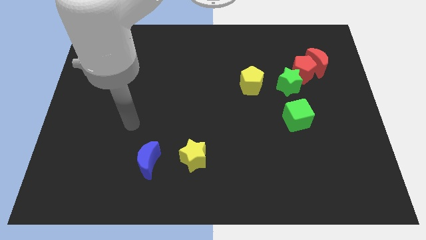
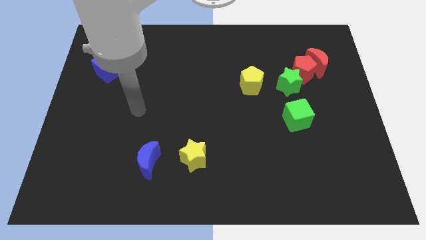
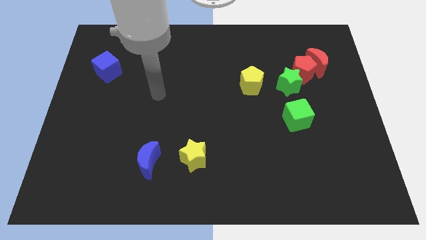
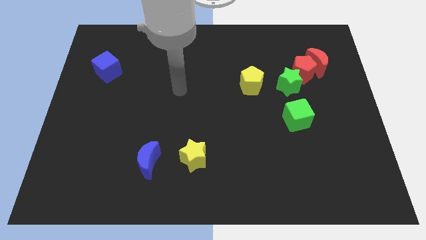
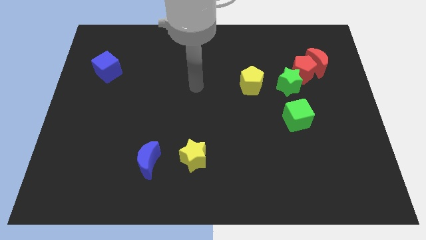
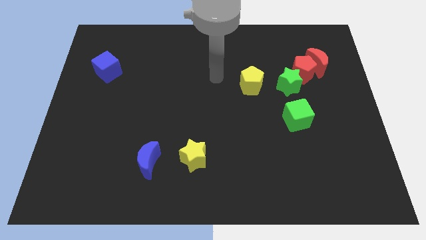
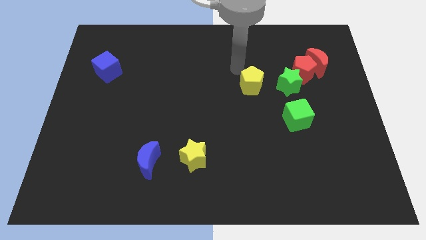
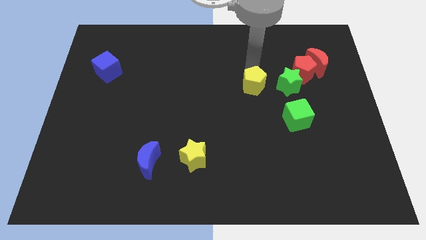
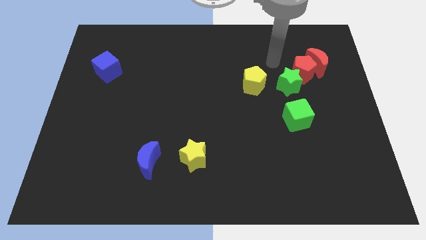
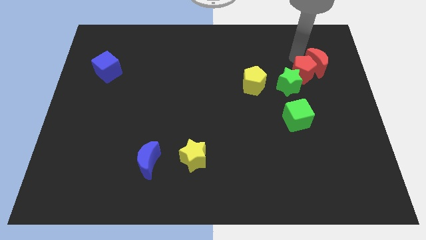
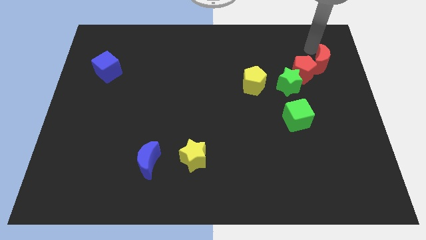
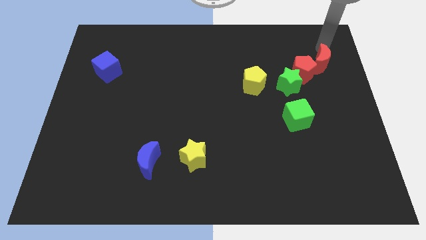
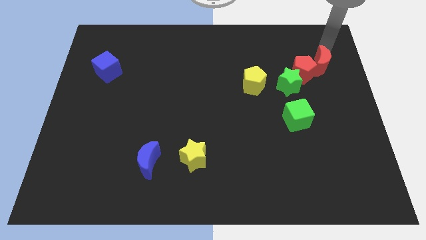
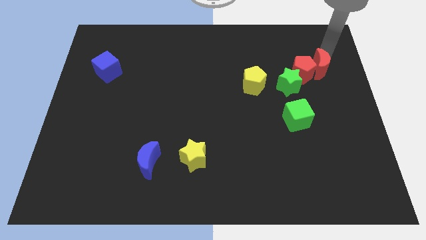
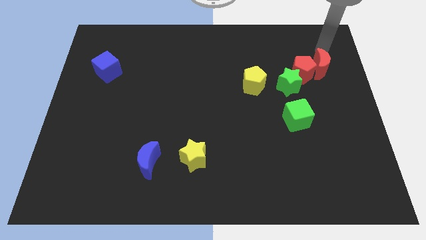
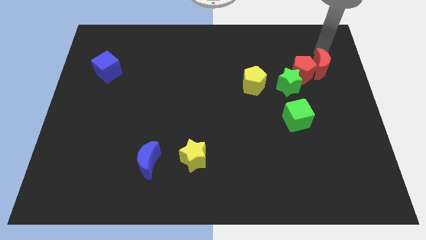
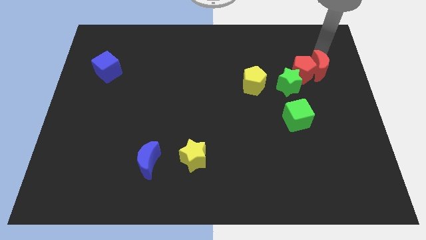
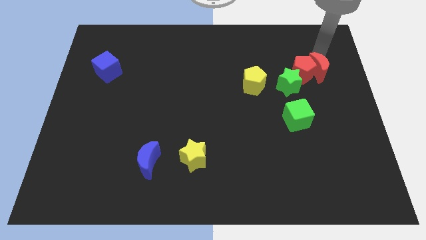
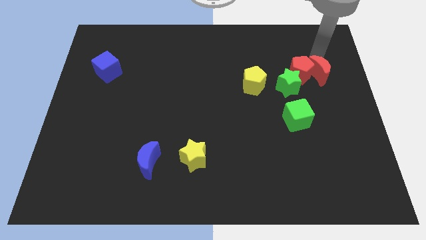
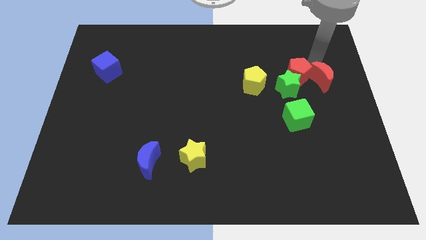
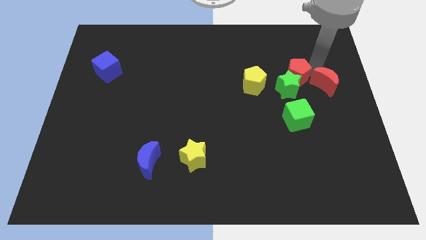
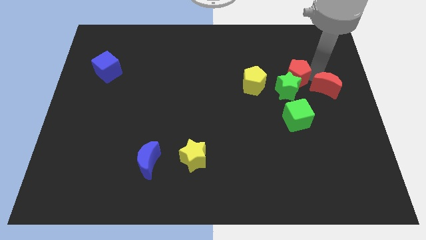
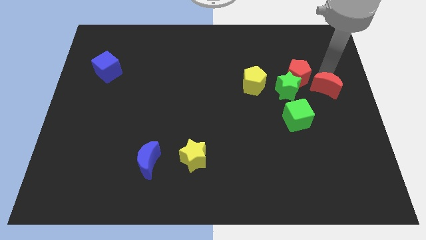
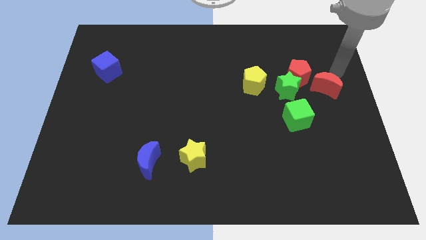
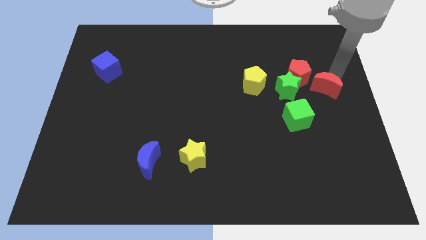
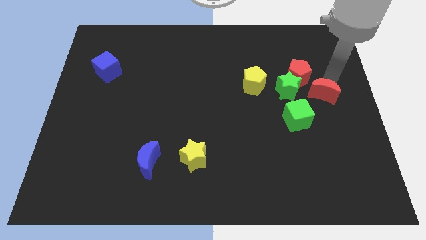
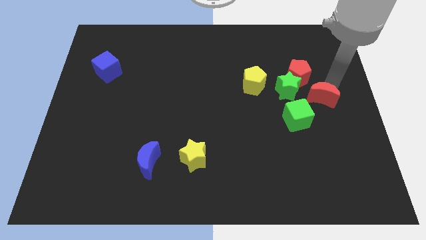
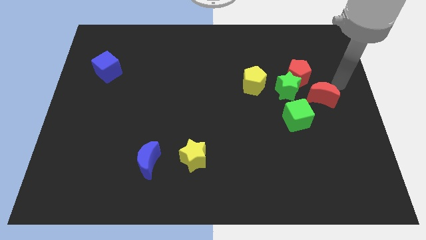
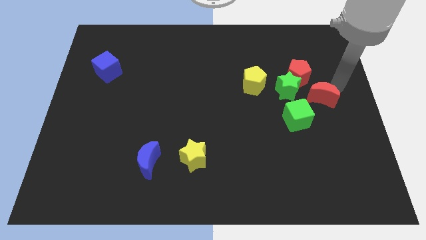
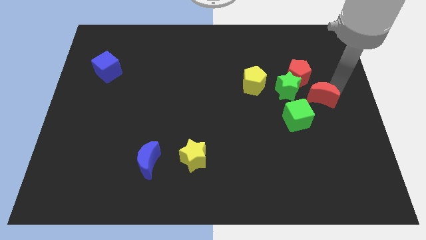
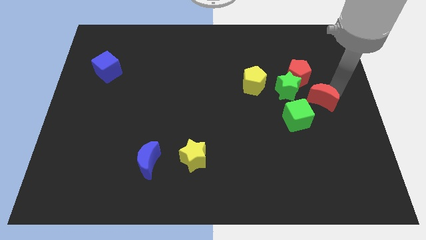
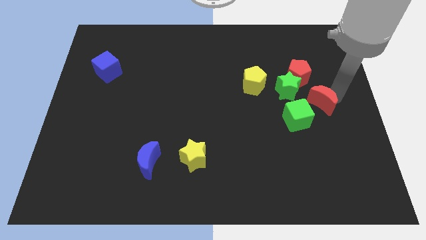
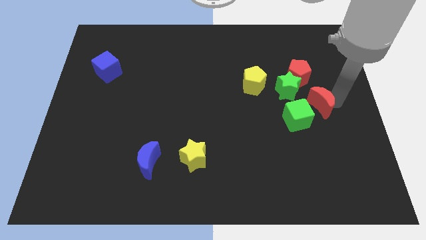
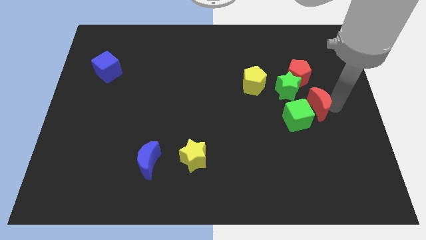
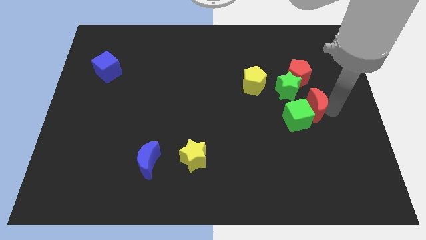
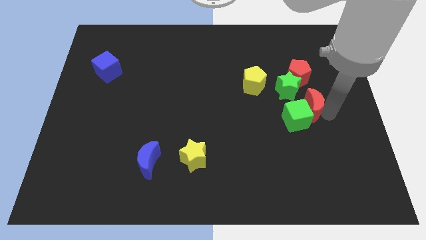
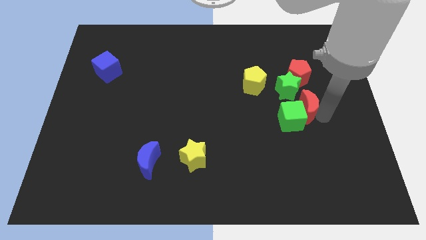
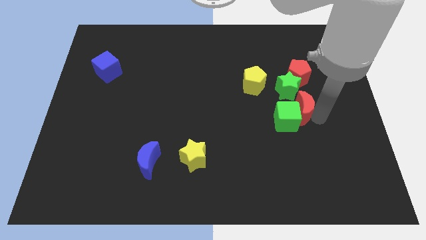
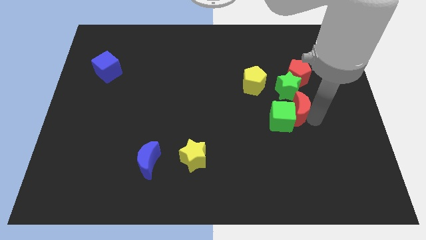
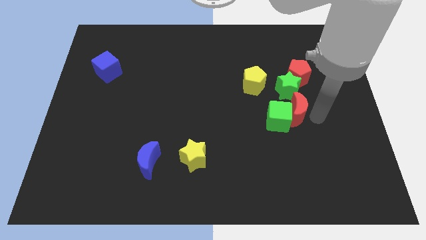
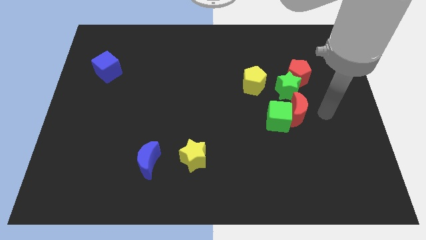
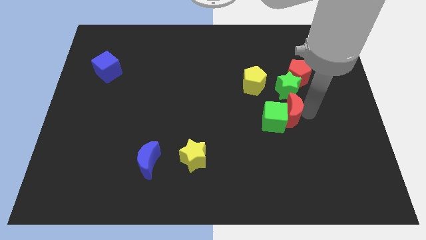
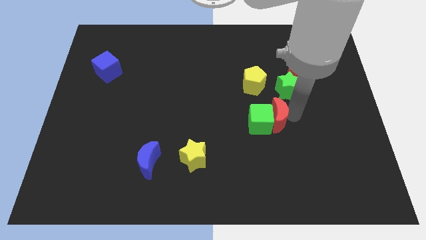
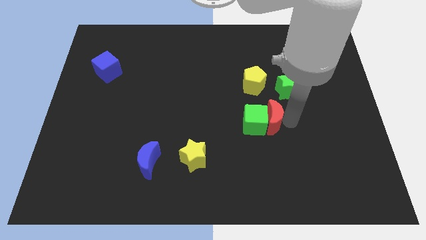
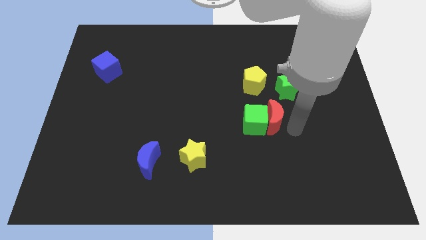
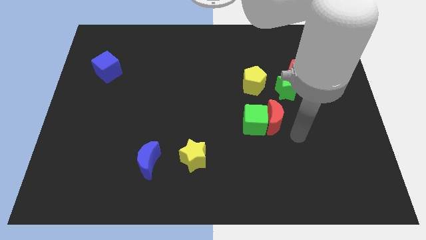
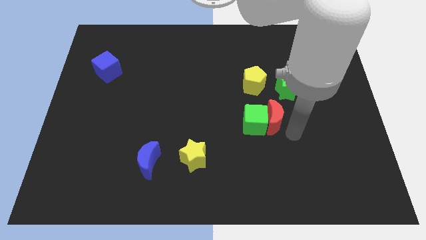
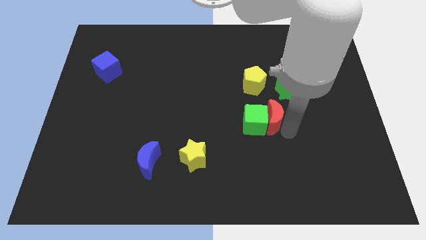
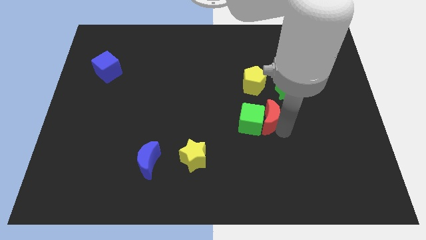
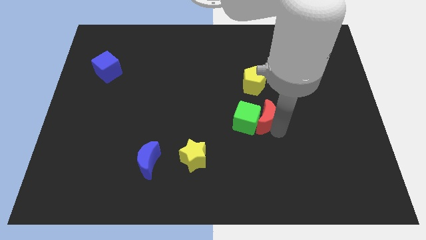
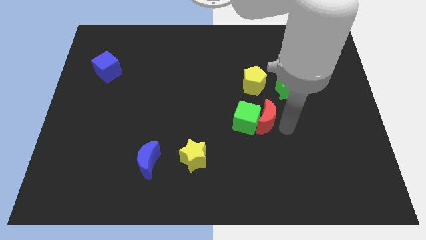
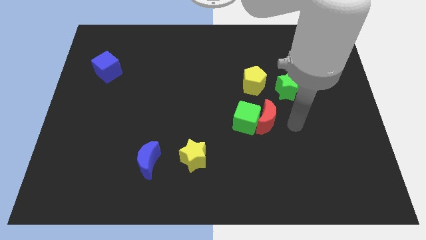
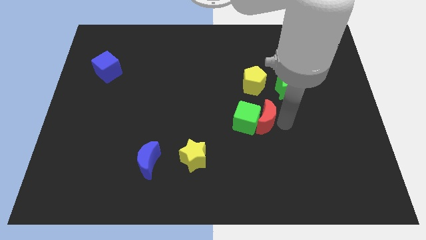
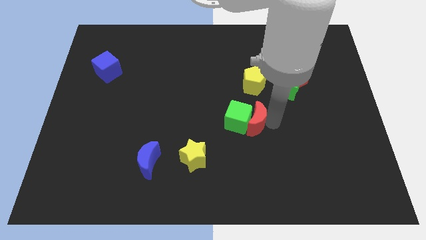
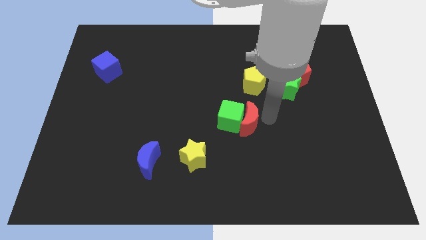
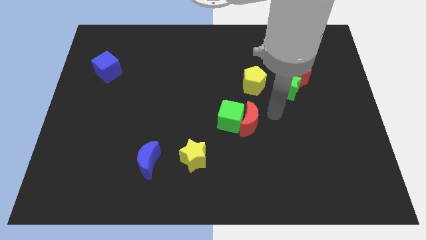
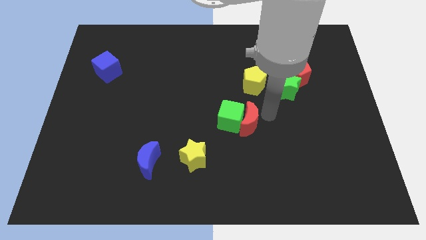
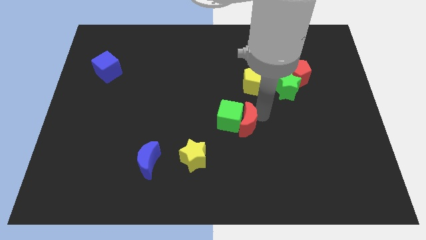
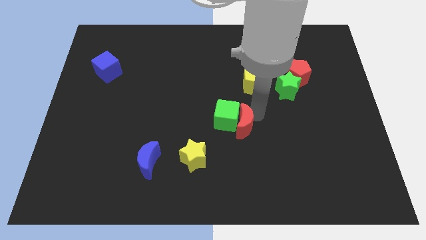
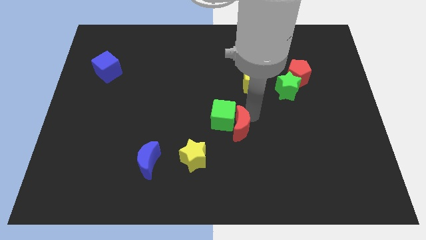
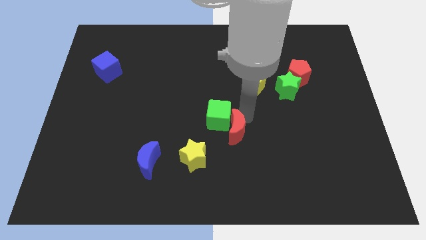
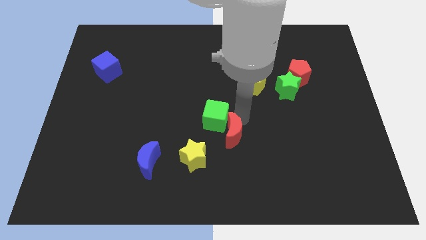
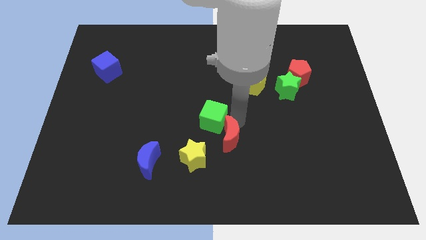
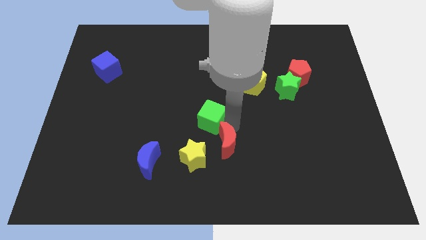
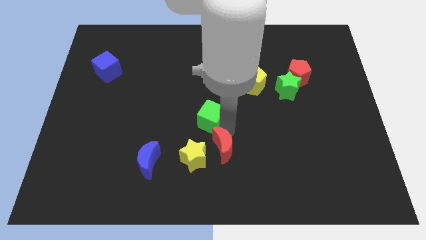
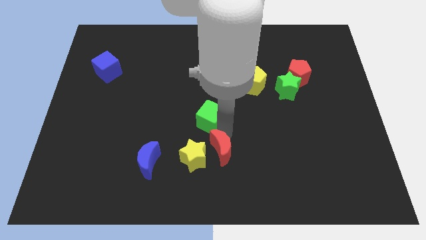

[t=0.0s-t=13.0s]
push the red moon towards the yellow star

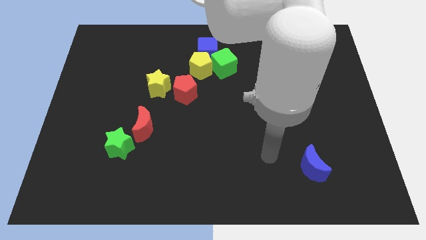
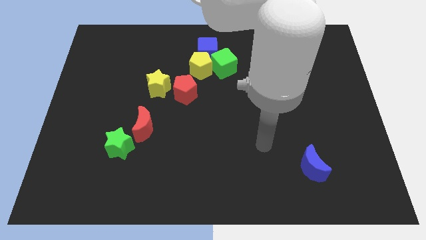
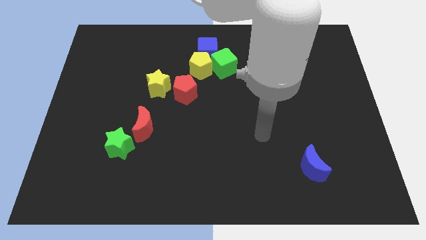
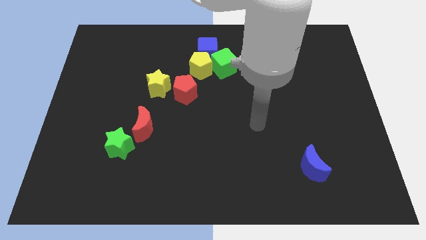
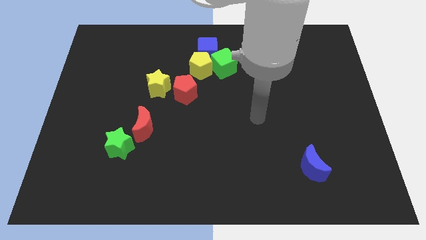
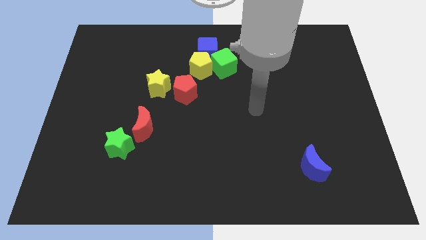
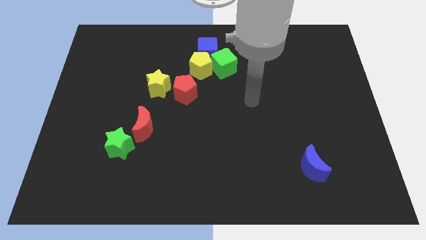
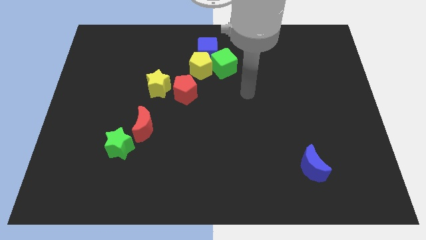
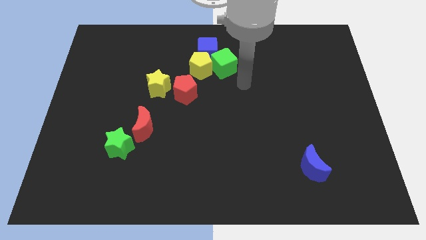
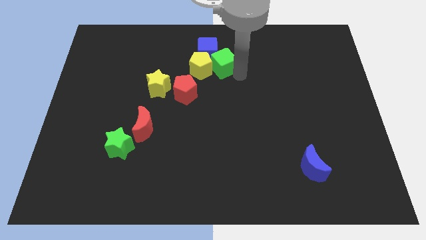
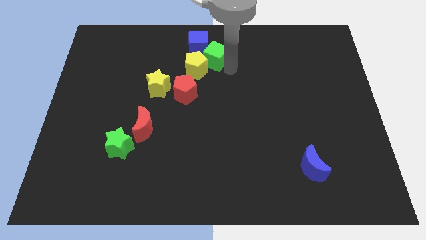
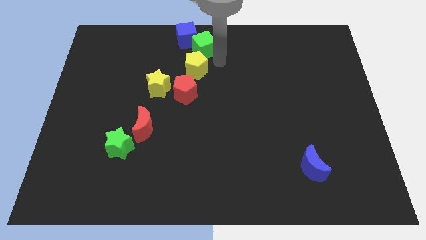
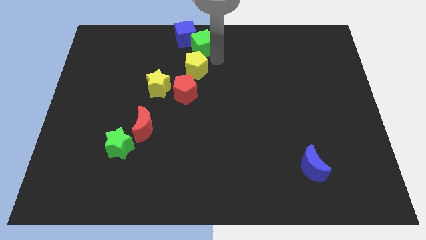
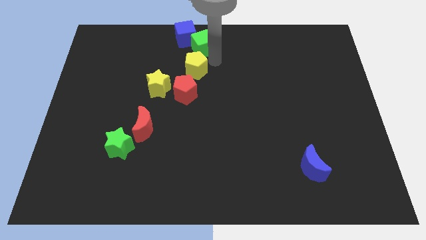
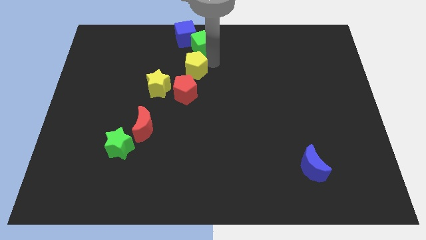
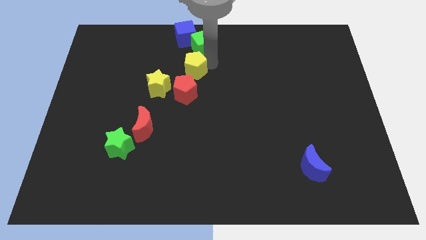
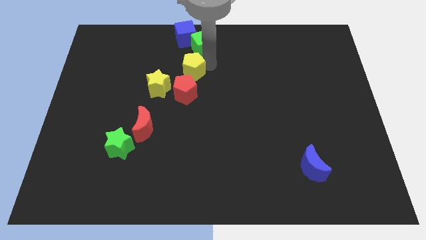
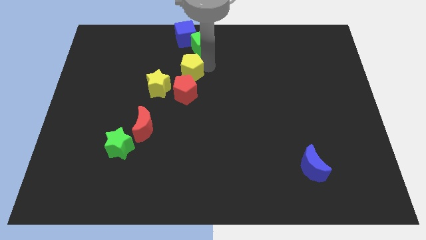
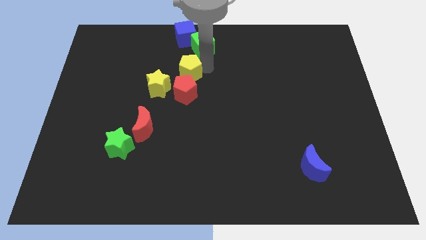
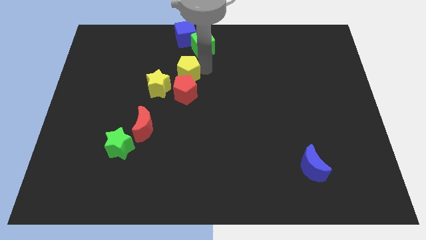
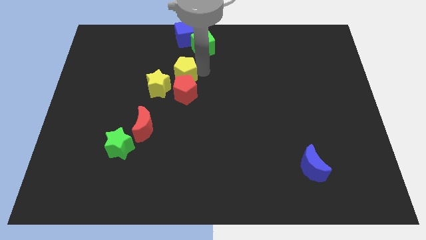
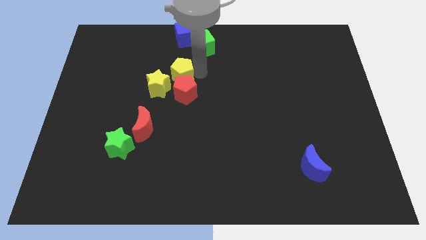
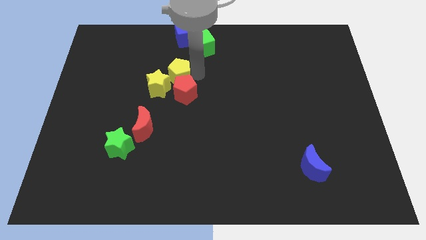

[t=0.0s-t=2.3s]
move the yellow pentagon towards the yellow star
